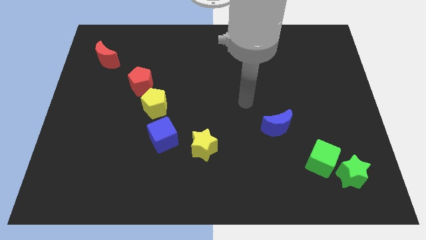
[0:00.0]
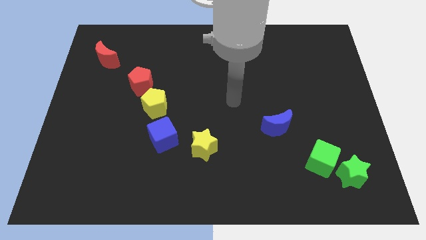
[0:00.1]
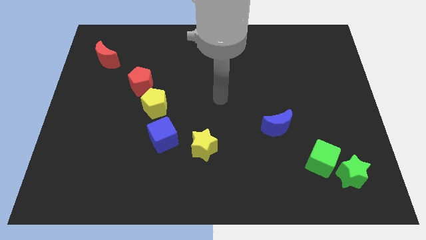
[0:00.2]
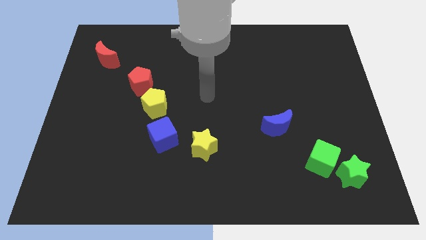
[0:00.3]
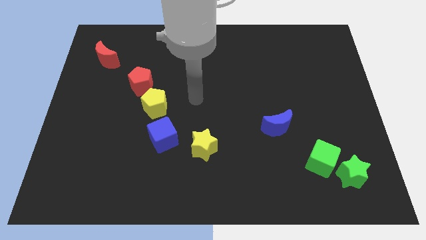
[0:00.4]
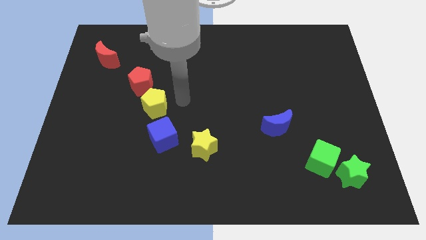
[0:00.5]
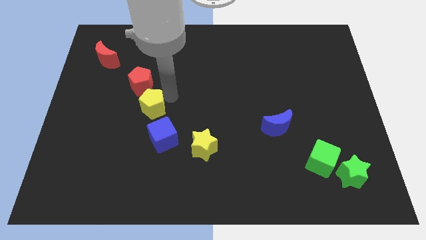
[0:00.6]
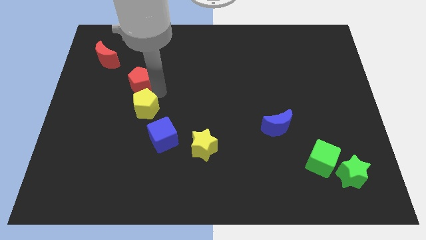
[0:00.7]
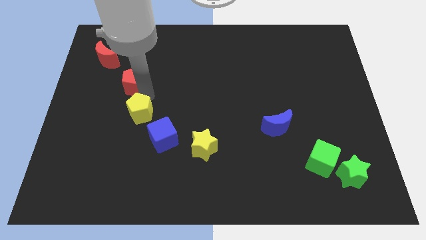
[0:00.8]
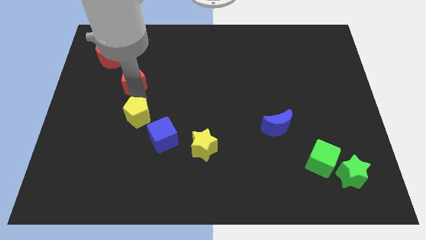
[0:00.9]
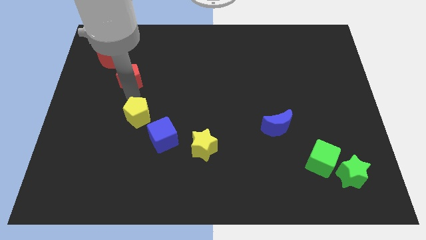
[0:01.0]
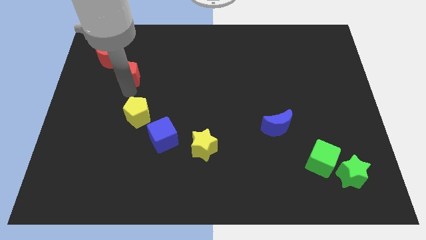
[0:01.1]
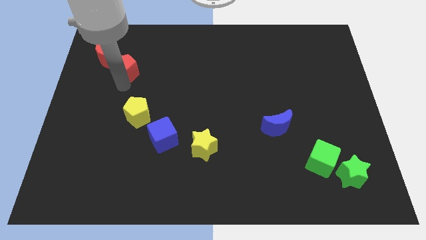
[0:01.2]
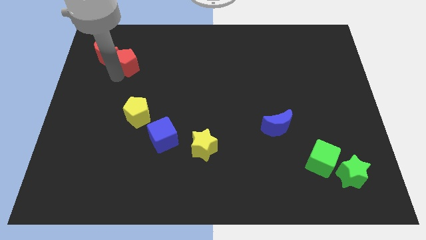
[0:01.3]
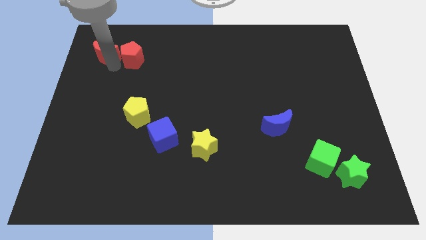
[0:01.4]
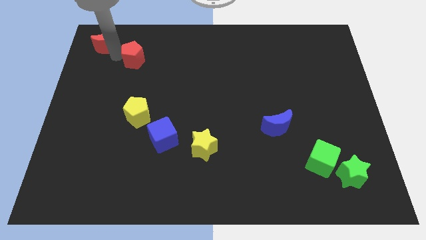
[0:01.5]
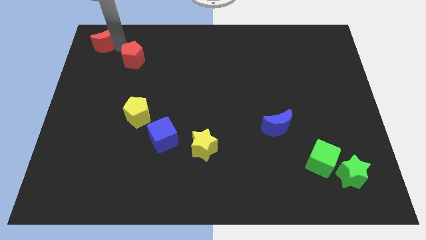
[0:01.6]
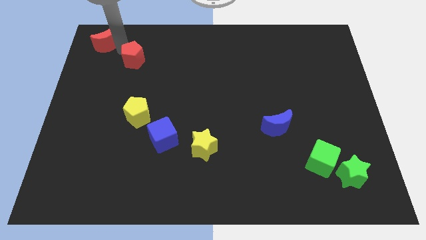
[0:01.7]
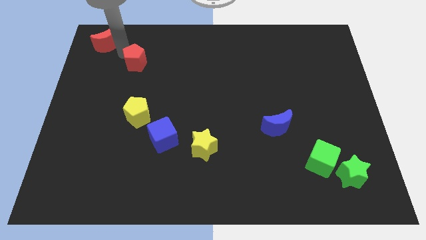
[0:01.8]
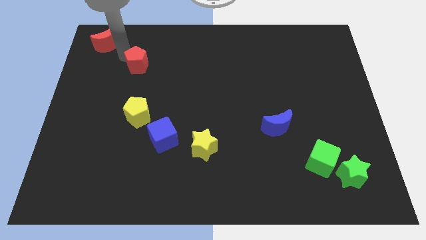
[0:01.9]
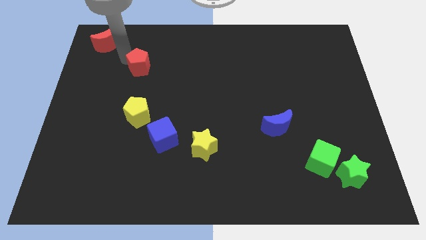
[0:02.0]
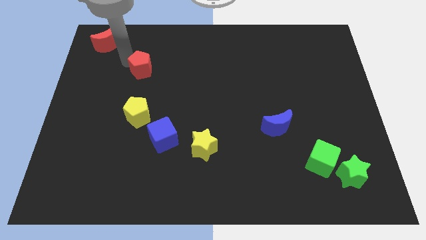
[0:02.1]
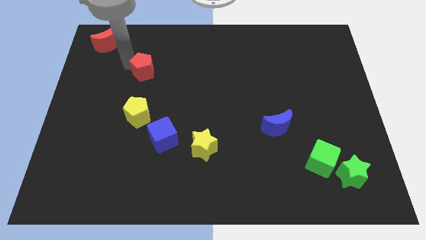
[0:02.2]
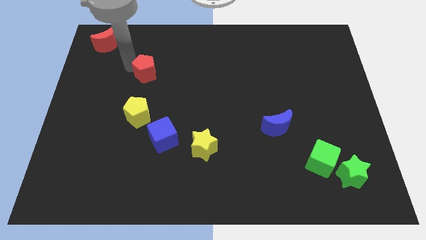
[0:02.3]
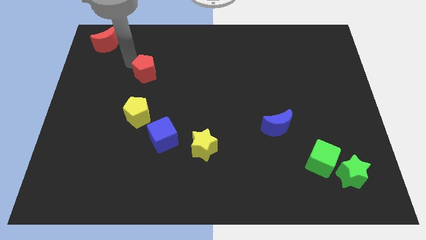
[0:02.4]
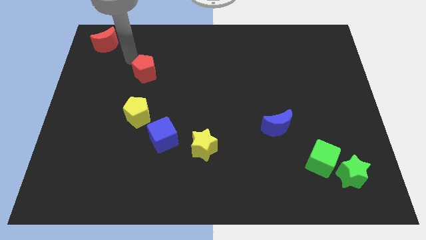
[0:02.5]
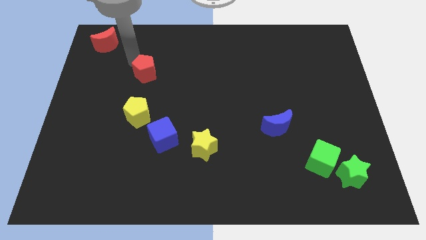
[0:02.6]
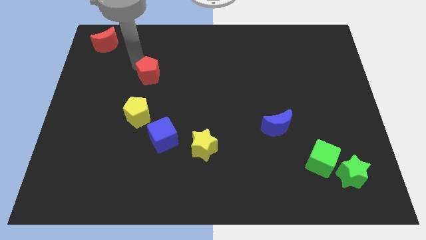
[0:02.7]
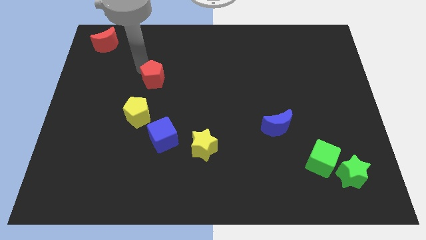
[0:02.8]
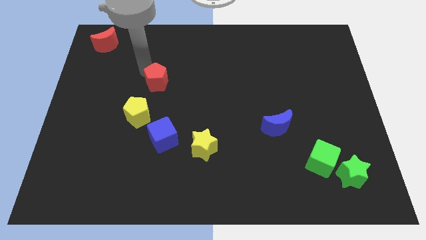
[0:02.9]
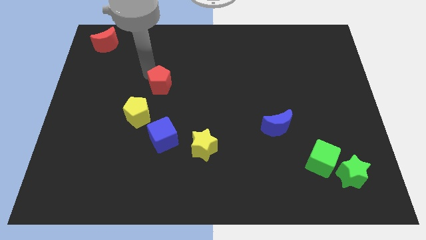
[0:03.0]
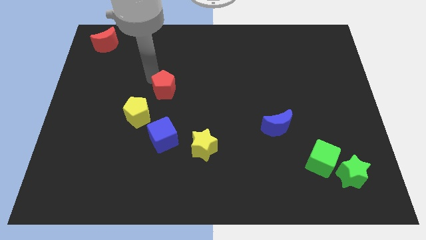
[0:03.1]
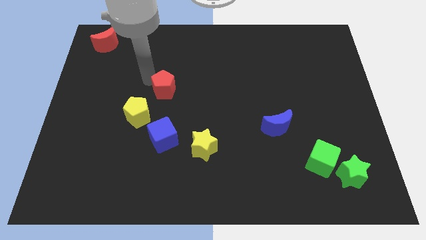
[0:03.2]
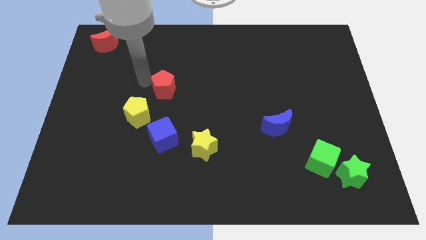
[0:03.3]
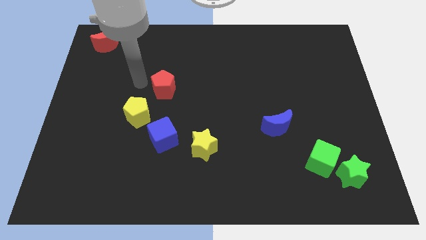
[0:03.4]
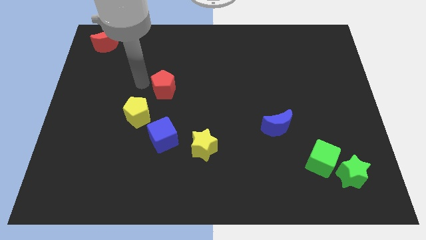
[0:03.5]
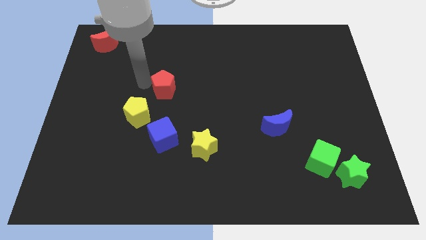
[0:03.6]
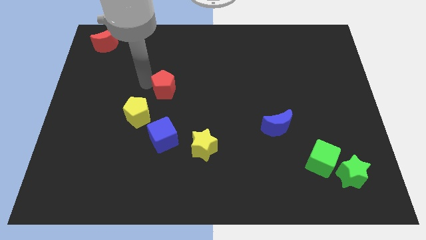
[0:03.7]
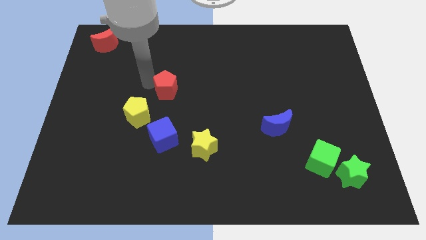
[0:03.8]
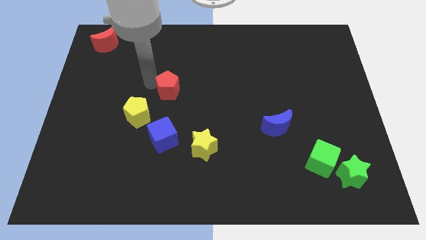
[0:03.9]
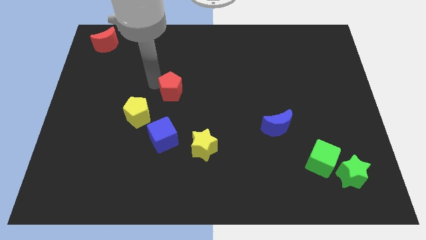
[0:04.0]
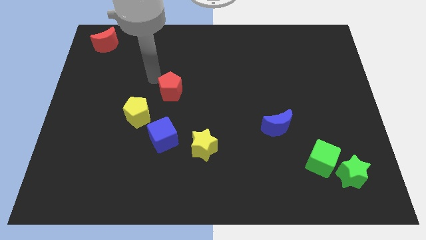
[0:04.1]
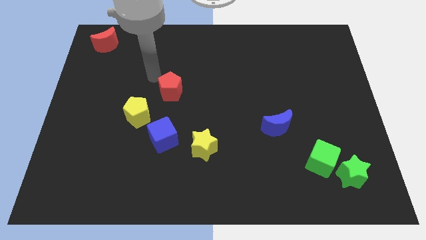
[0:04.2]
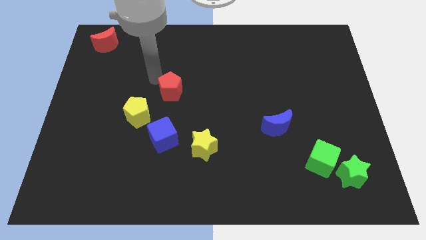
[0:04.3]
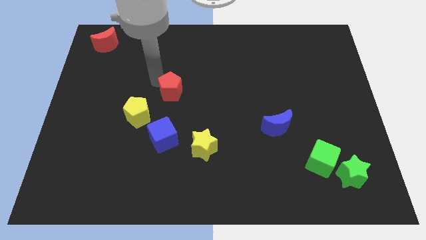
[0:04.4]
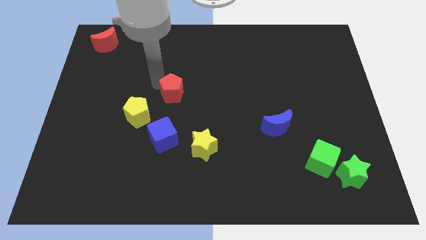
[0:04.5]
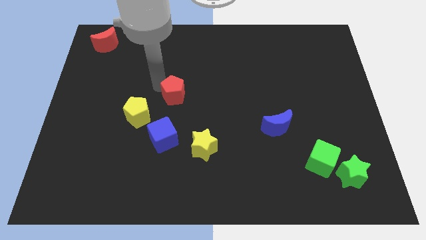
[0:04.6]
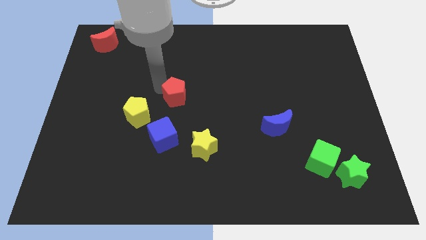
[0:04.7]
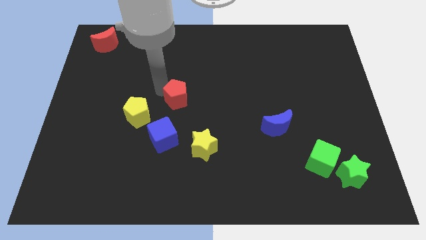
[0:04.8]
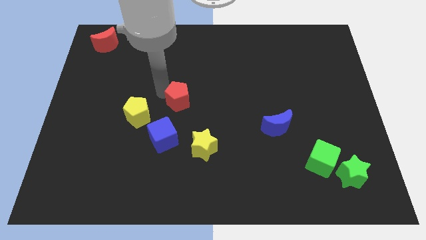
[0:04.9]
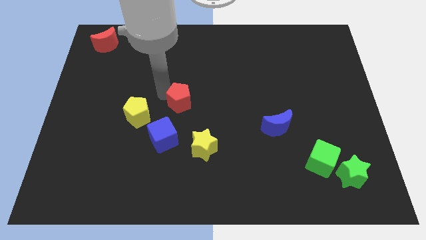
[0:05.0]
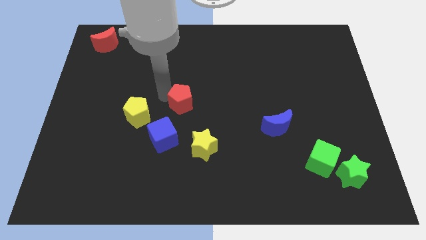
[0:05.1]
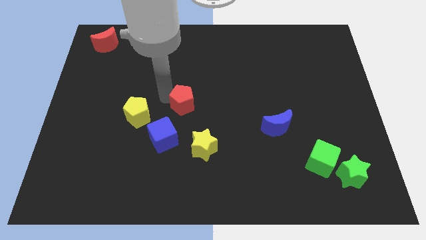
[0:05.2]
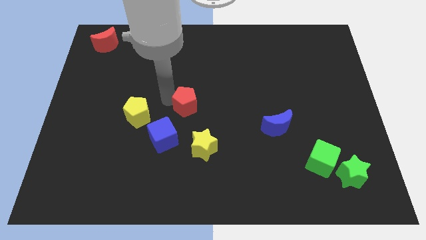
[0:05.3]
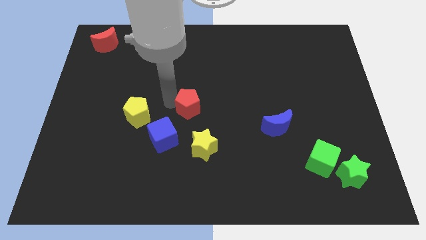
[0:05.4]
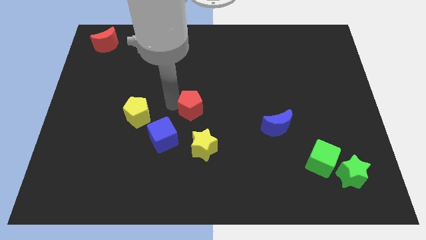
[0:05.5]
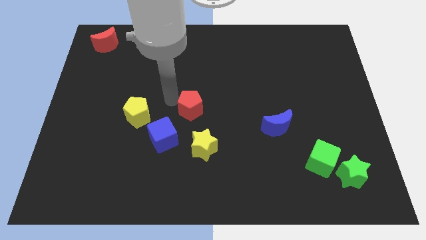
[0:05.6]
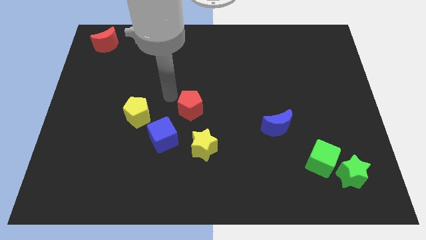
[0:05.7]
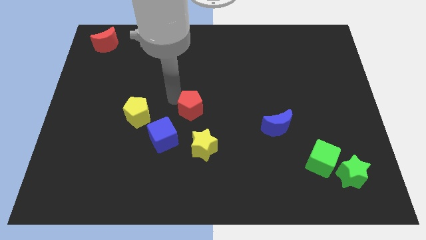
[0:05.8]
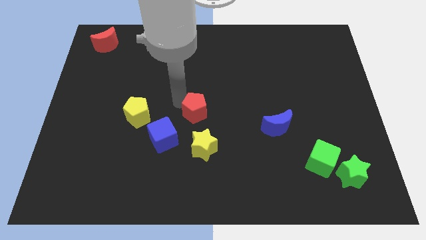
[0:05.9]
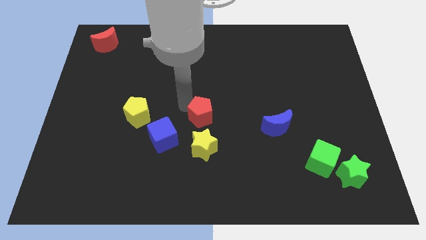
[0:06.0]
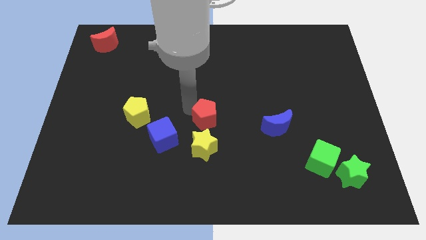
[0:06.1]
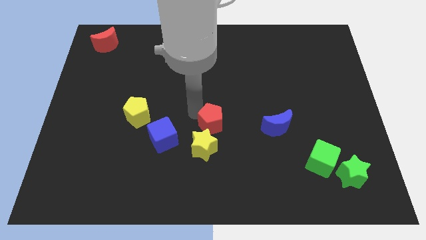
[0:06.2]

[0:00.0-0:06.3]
push the red pentagon to the top right side of the yellow star
